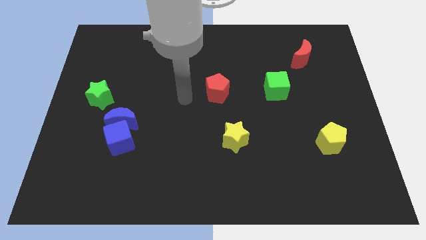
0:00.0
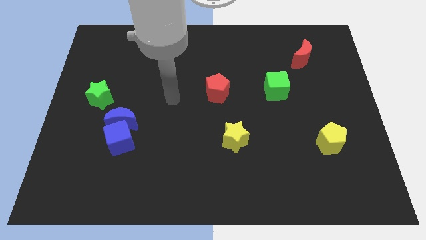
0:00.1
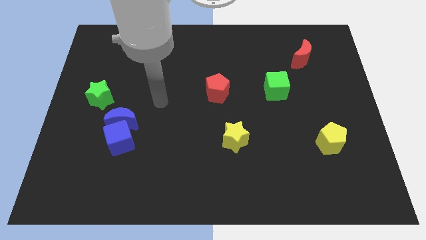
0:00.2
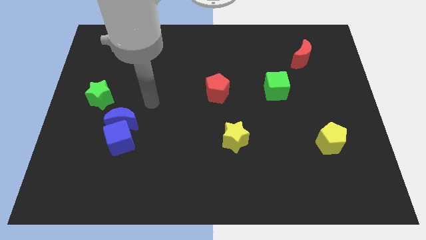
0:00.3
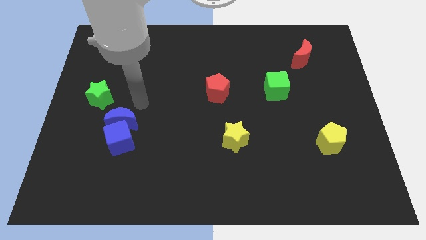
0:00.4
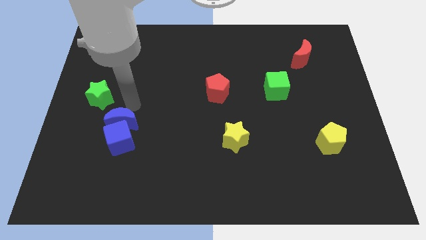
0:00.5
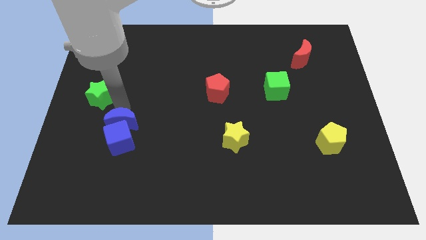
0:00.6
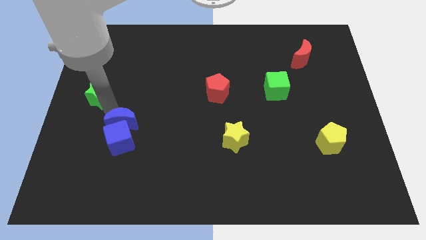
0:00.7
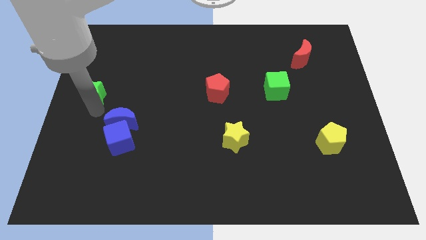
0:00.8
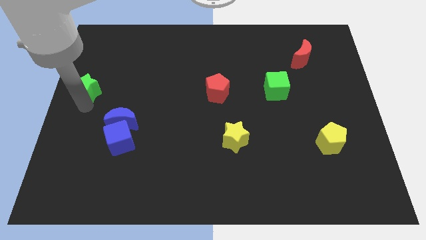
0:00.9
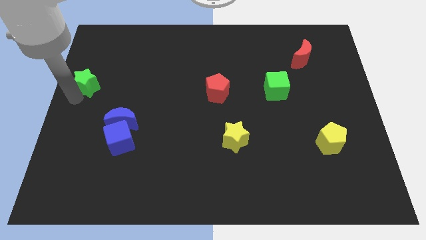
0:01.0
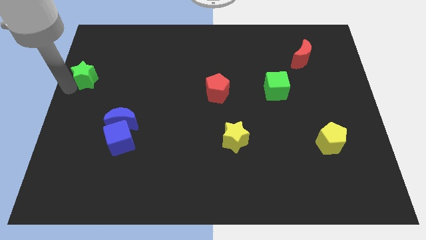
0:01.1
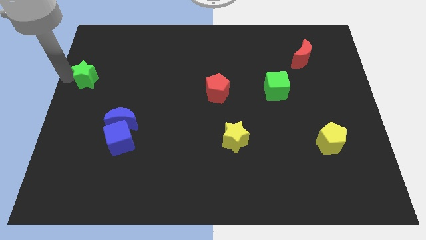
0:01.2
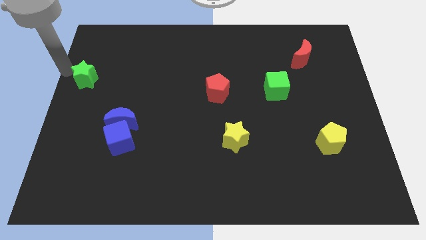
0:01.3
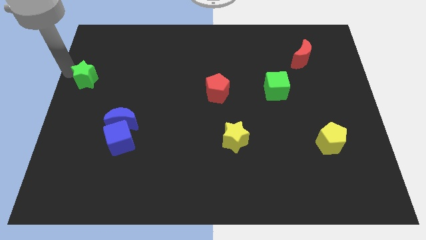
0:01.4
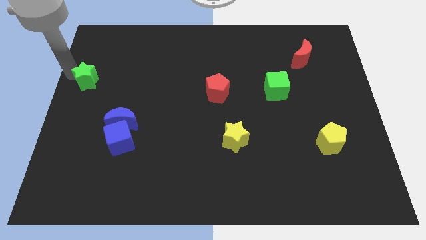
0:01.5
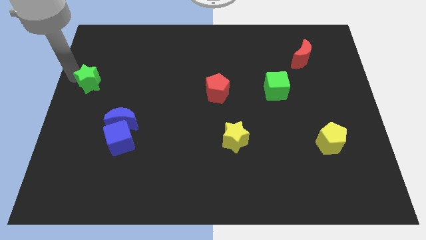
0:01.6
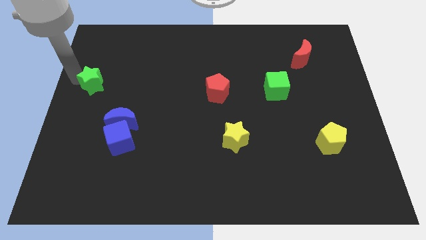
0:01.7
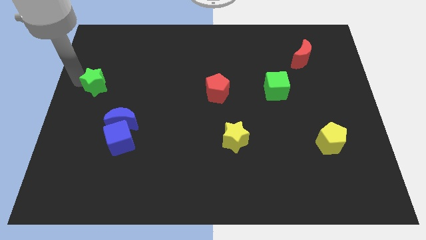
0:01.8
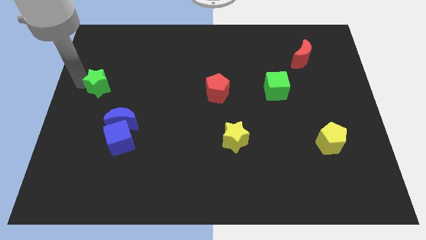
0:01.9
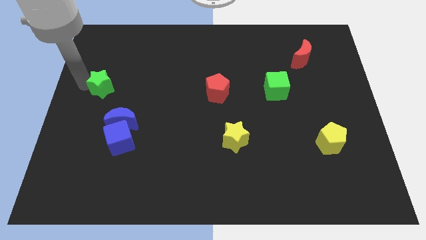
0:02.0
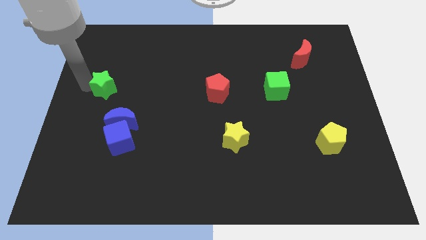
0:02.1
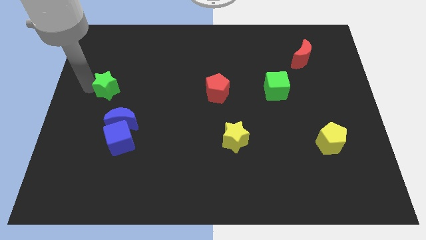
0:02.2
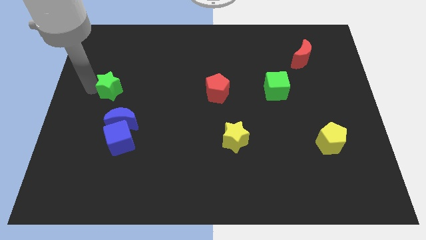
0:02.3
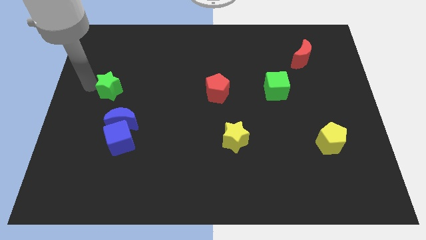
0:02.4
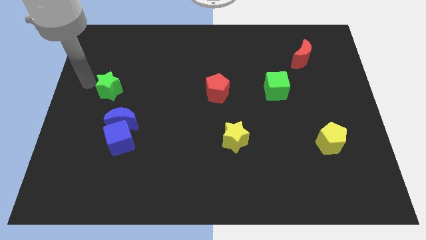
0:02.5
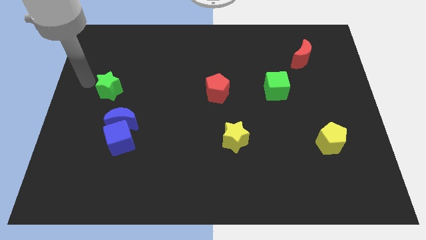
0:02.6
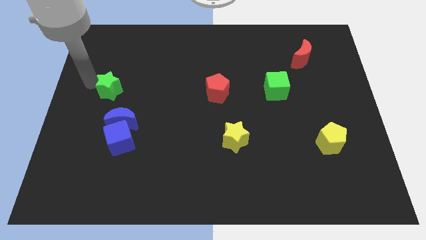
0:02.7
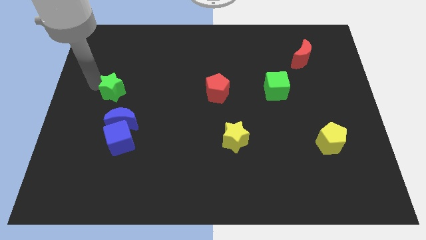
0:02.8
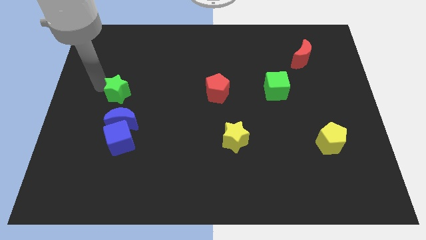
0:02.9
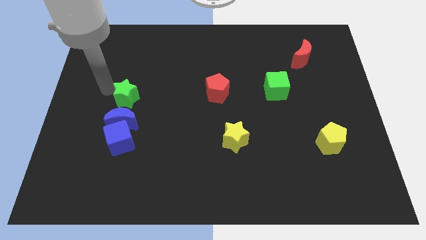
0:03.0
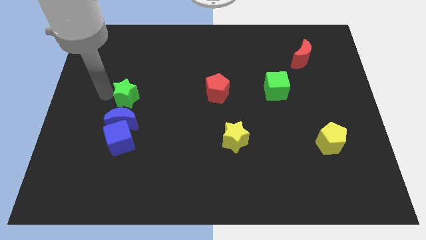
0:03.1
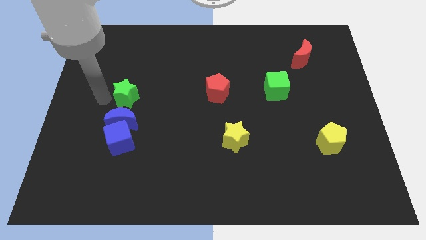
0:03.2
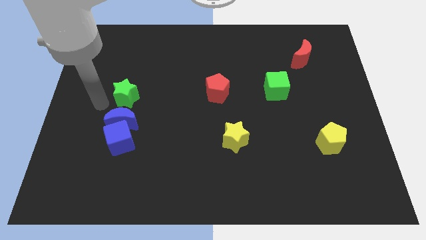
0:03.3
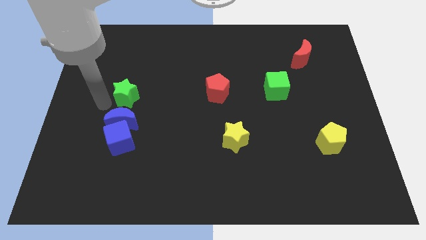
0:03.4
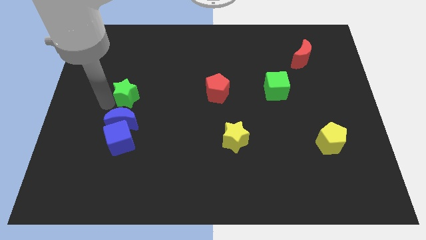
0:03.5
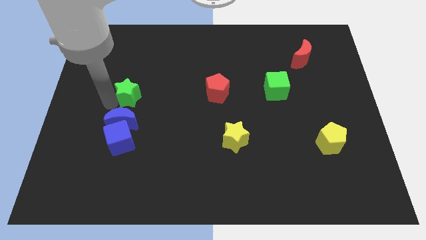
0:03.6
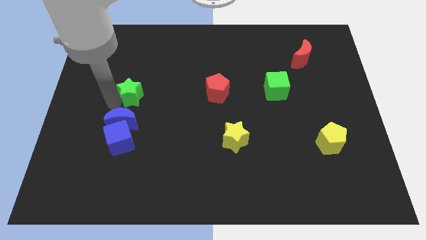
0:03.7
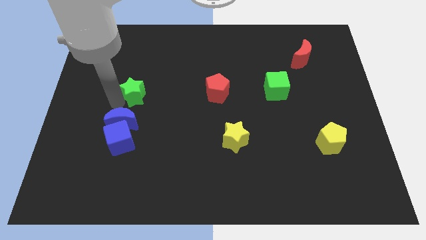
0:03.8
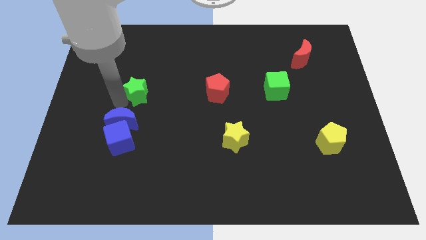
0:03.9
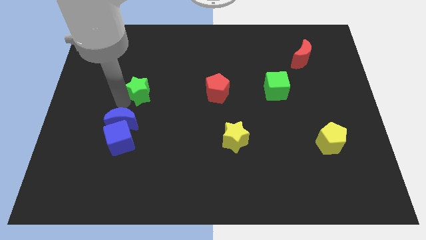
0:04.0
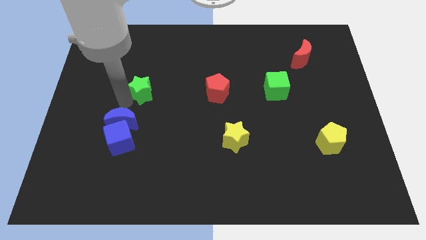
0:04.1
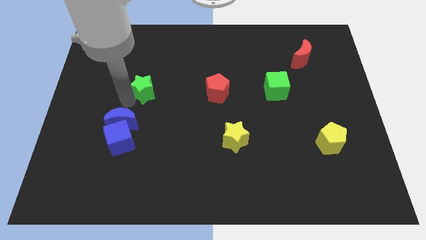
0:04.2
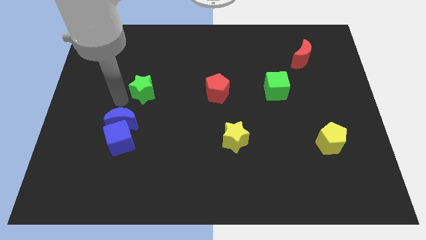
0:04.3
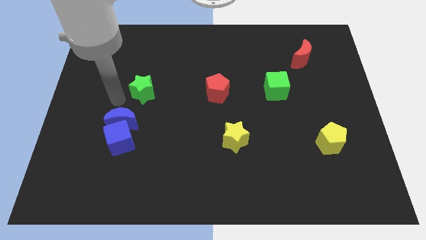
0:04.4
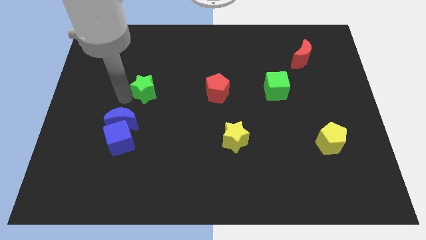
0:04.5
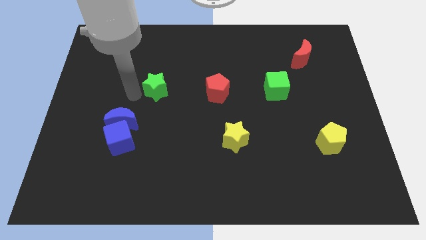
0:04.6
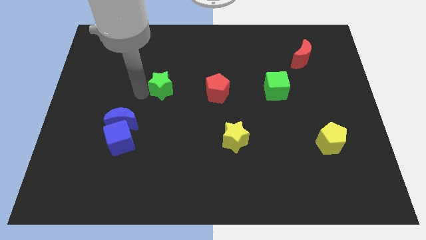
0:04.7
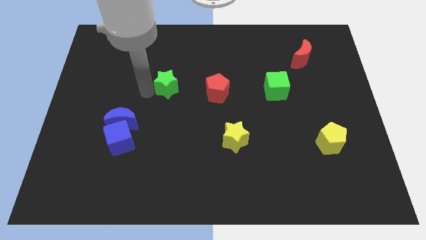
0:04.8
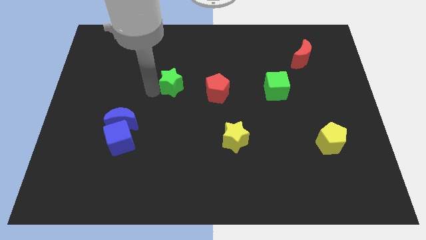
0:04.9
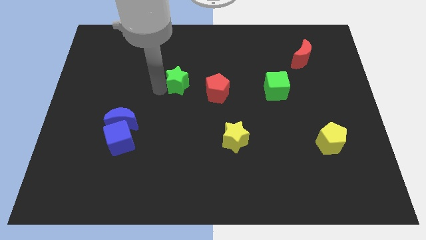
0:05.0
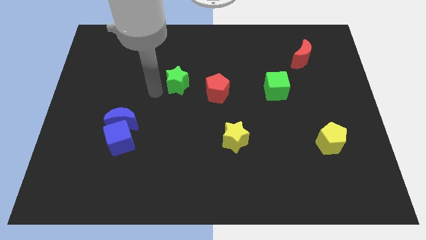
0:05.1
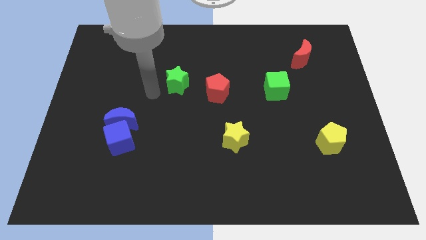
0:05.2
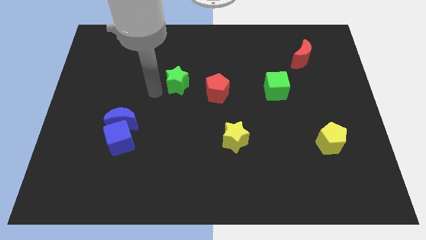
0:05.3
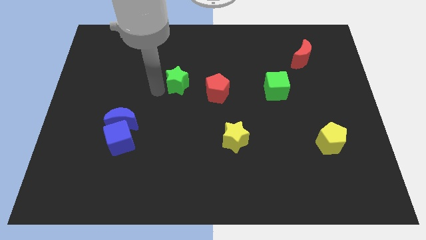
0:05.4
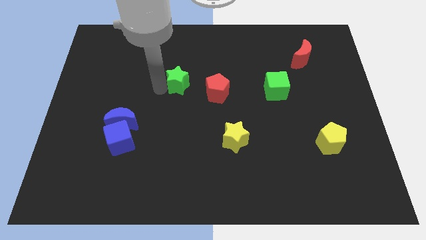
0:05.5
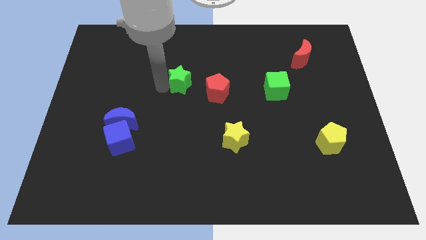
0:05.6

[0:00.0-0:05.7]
move the green star to the top left side of the red pentagon

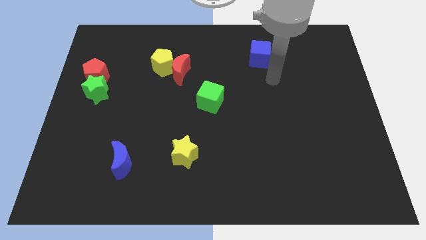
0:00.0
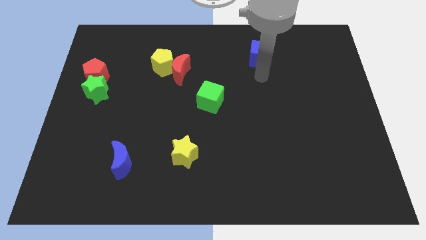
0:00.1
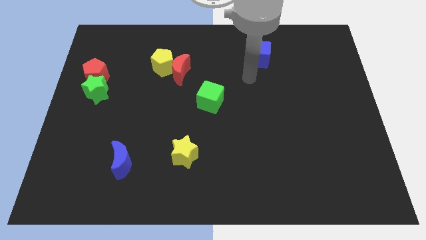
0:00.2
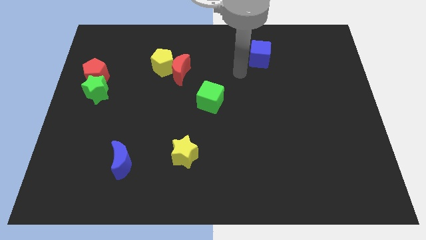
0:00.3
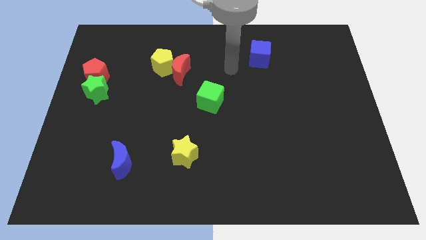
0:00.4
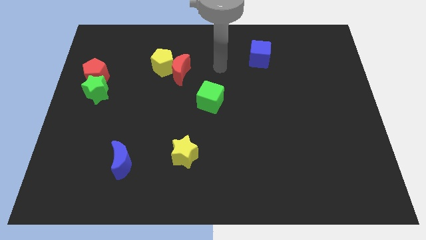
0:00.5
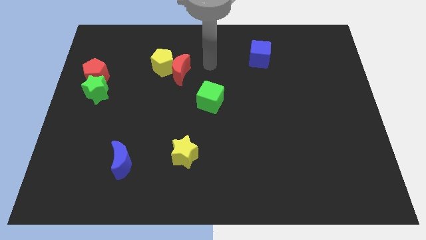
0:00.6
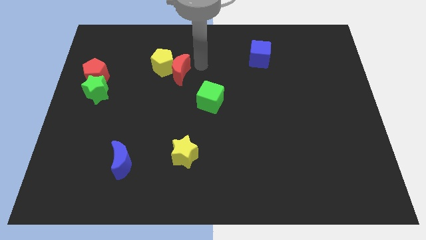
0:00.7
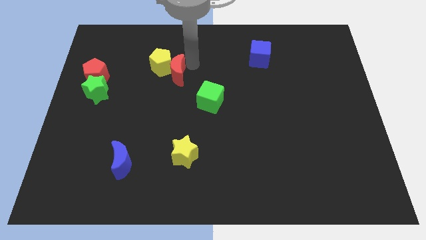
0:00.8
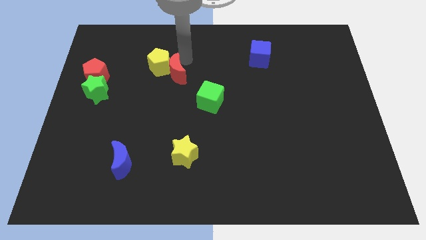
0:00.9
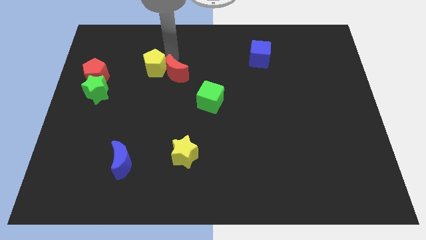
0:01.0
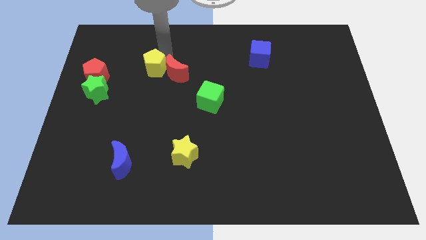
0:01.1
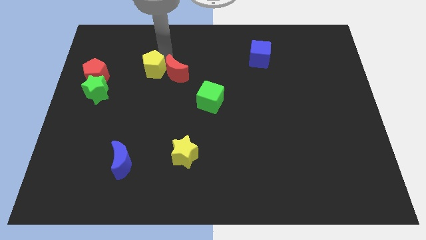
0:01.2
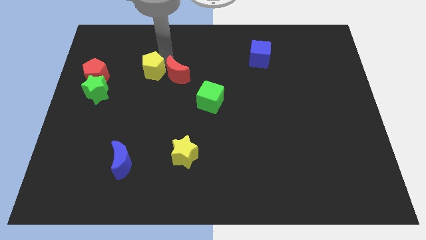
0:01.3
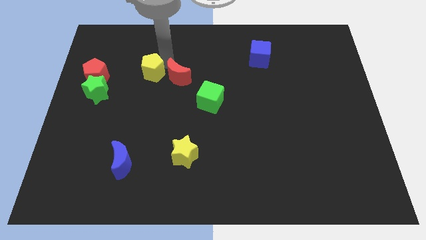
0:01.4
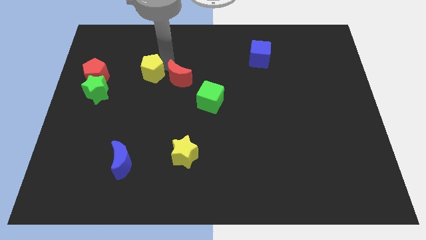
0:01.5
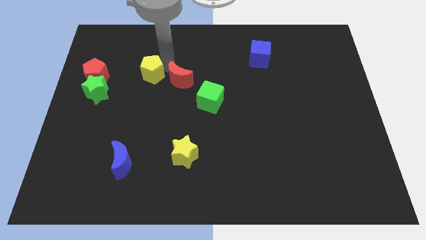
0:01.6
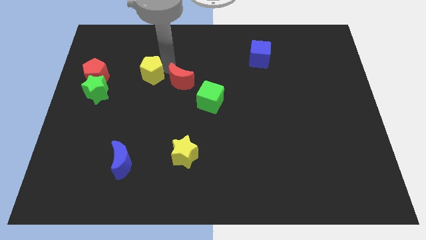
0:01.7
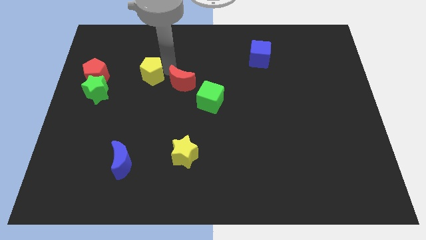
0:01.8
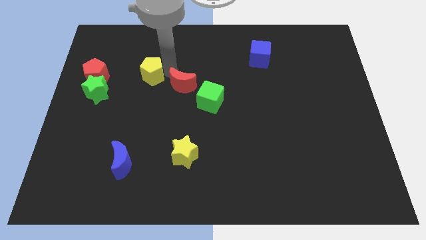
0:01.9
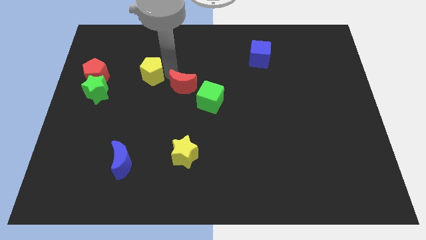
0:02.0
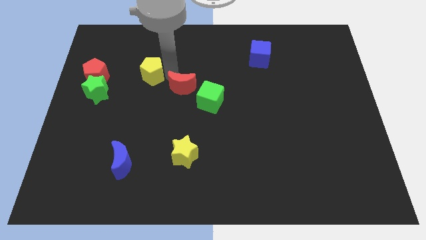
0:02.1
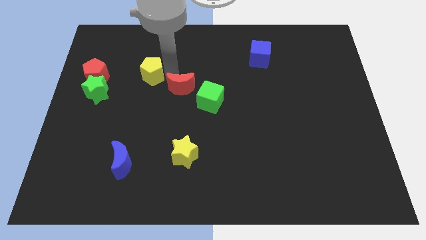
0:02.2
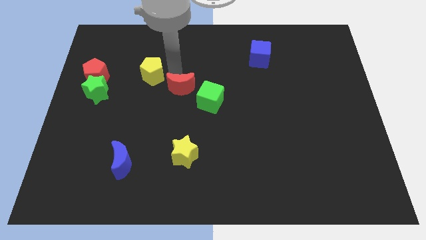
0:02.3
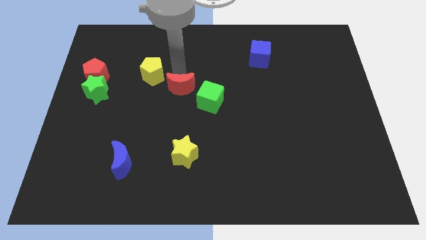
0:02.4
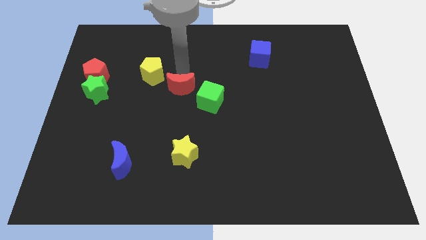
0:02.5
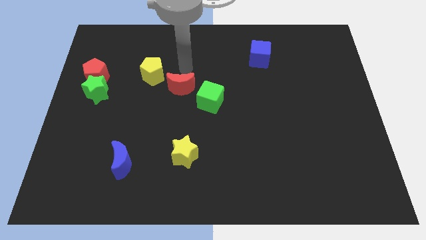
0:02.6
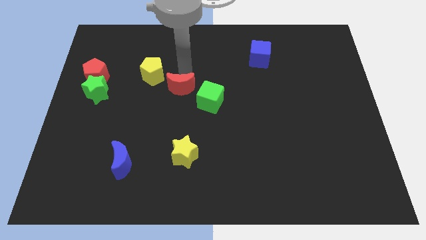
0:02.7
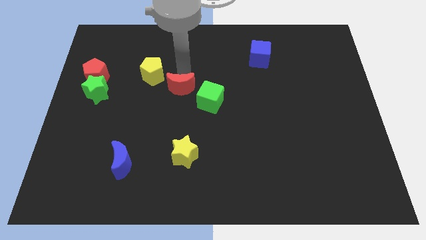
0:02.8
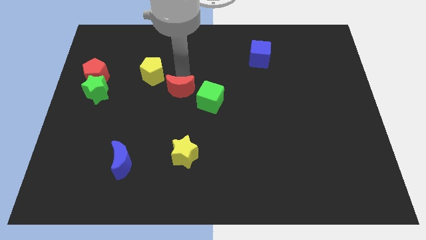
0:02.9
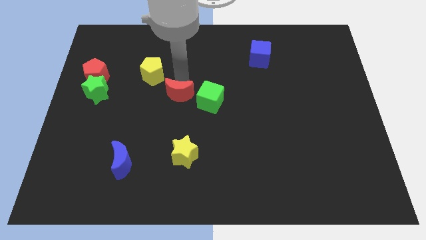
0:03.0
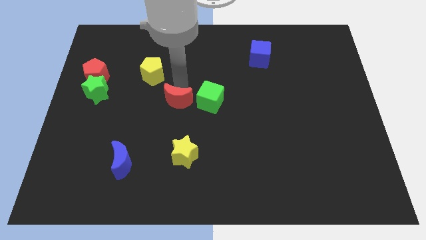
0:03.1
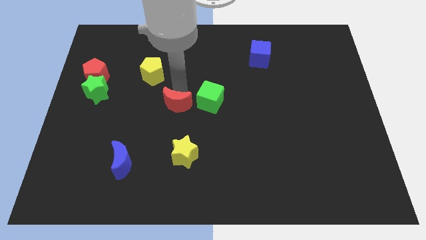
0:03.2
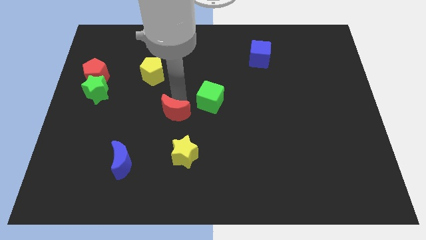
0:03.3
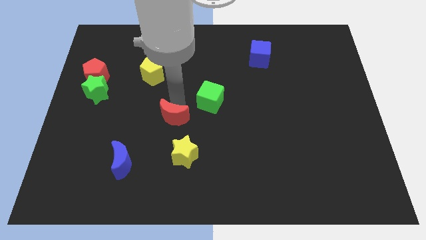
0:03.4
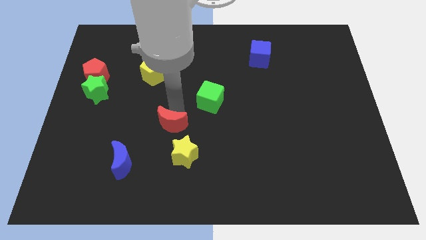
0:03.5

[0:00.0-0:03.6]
put the red moon diagonally up and to the left of the yellow star
